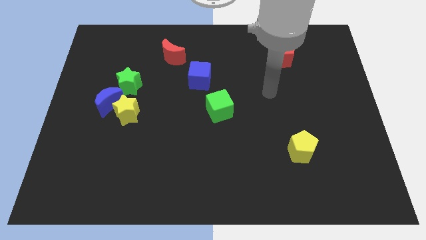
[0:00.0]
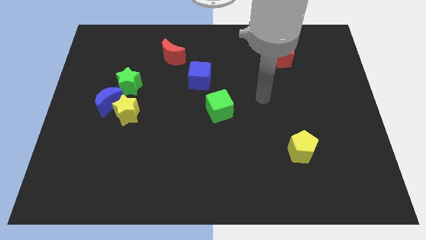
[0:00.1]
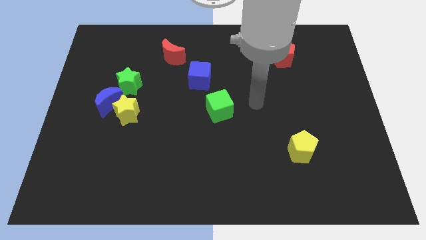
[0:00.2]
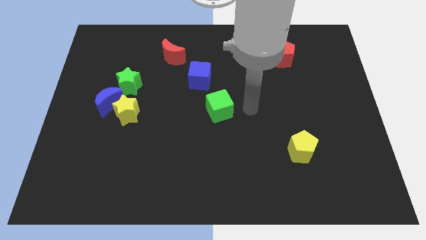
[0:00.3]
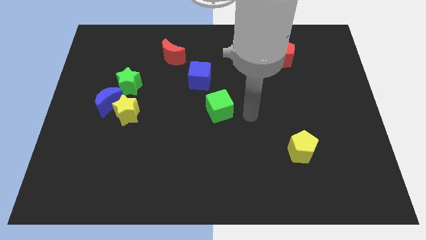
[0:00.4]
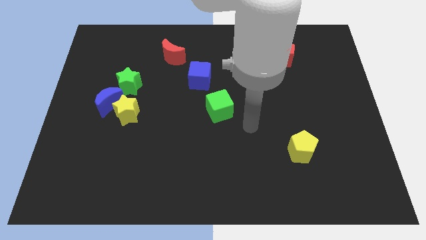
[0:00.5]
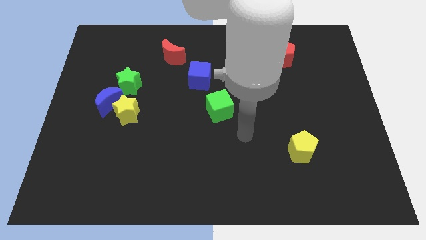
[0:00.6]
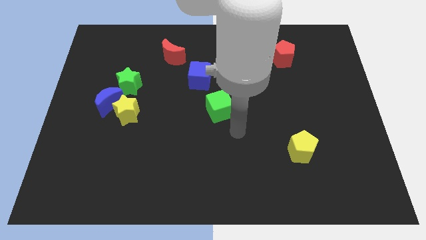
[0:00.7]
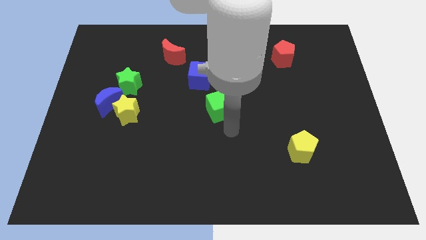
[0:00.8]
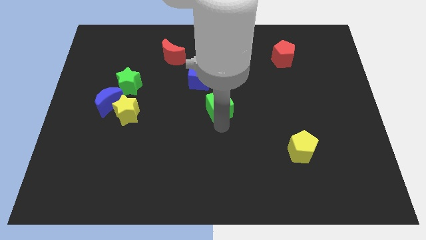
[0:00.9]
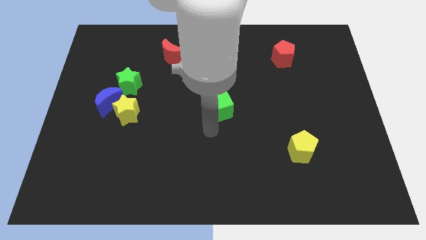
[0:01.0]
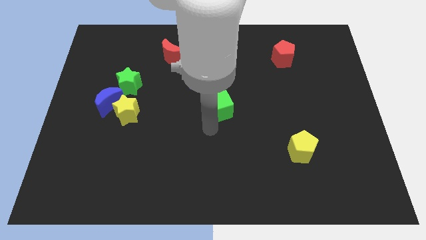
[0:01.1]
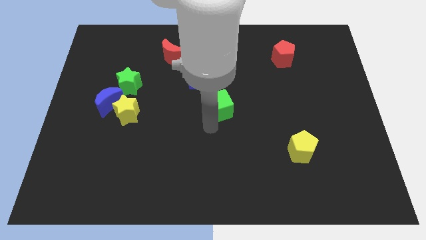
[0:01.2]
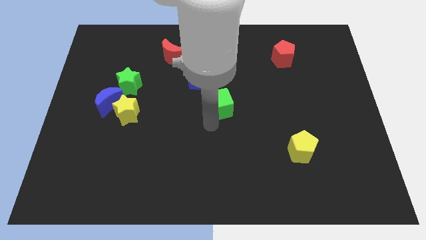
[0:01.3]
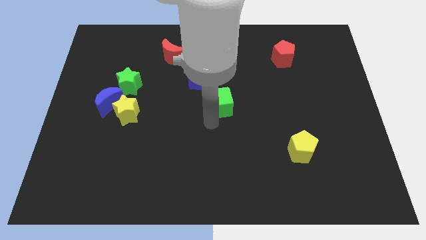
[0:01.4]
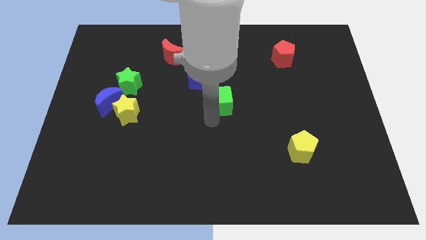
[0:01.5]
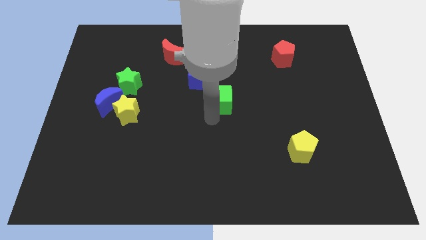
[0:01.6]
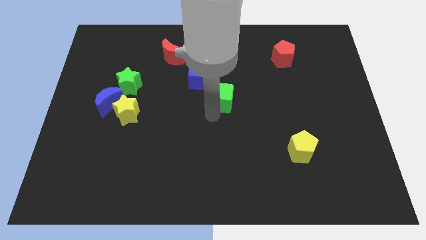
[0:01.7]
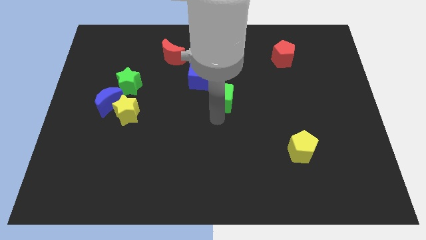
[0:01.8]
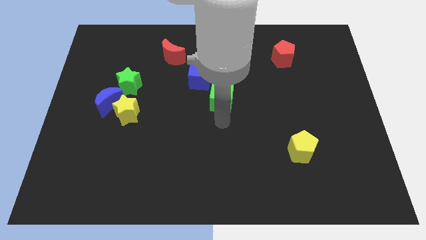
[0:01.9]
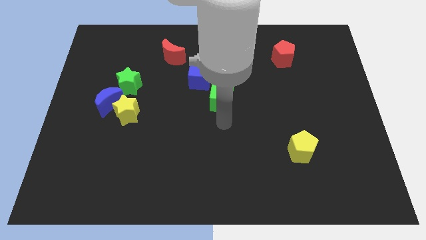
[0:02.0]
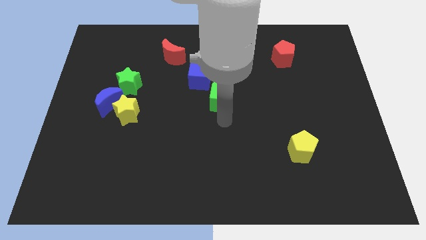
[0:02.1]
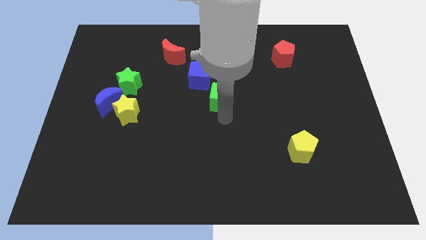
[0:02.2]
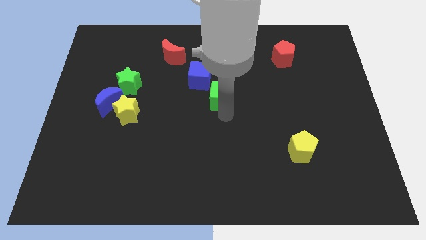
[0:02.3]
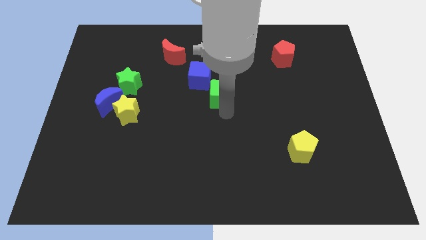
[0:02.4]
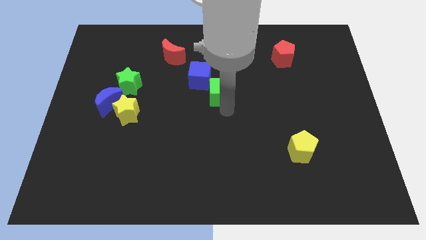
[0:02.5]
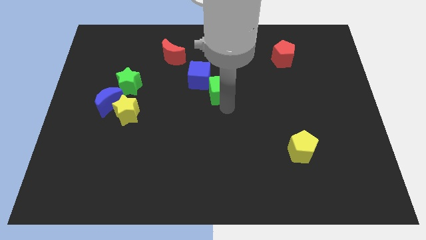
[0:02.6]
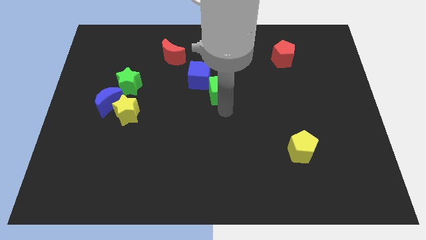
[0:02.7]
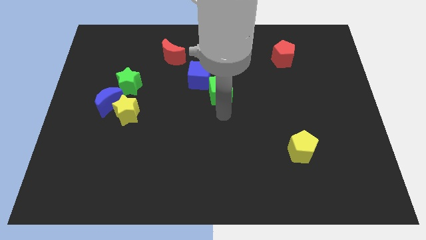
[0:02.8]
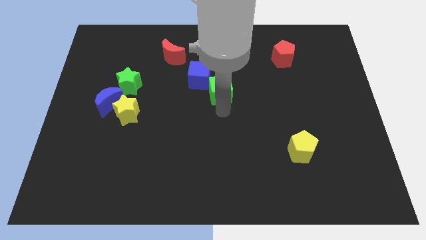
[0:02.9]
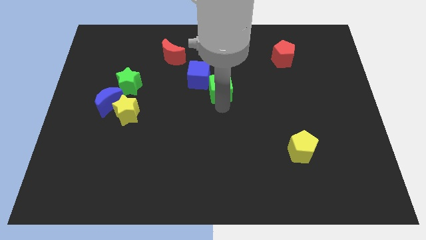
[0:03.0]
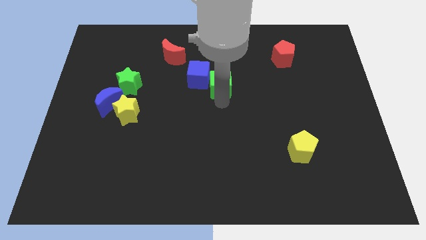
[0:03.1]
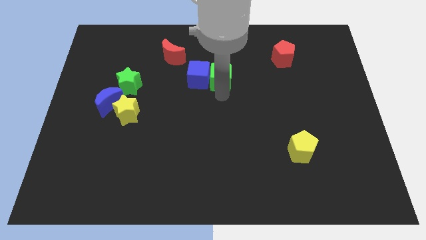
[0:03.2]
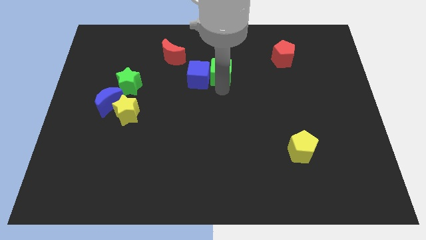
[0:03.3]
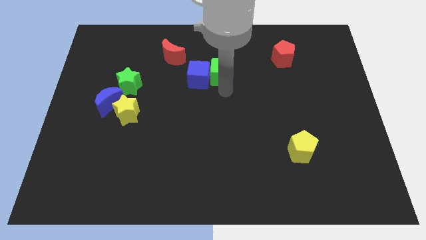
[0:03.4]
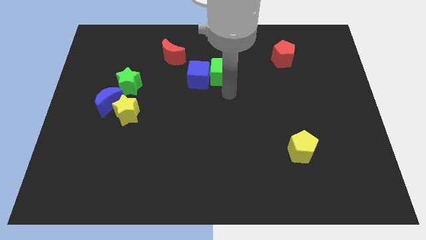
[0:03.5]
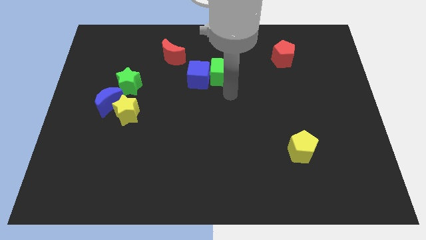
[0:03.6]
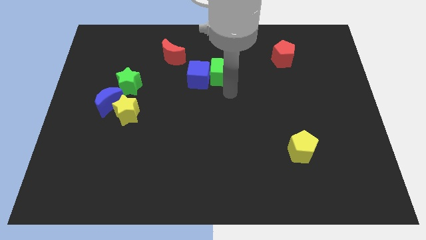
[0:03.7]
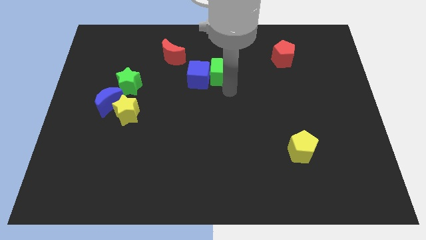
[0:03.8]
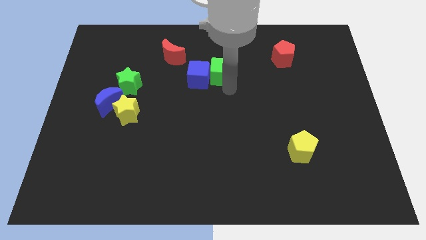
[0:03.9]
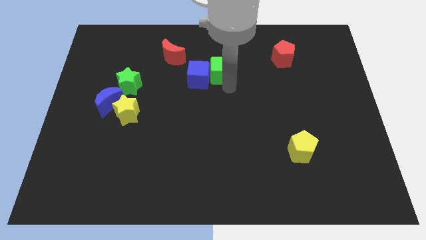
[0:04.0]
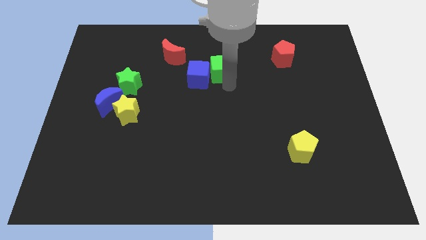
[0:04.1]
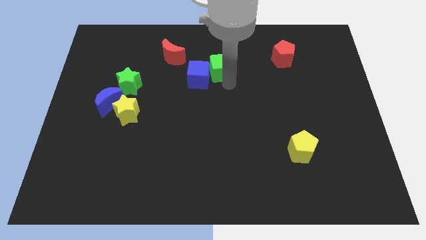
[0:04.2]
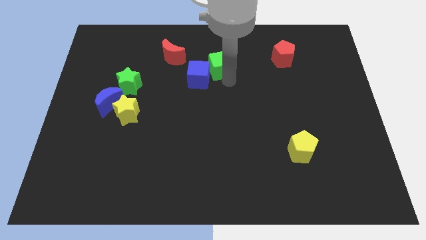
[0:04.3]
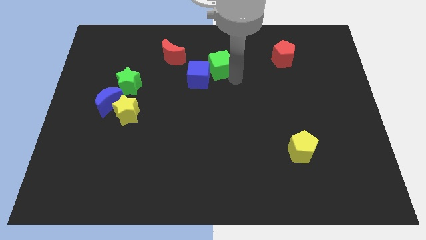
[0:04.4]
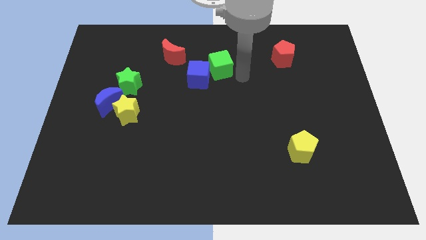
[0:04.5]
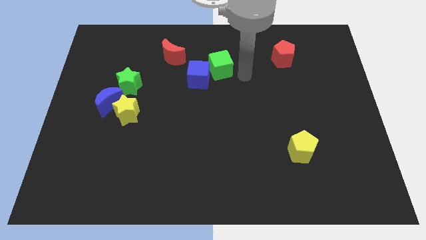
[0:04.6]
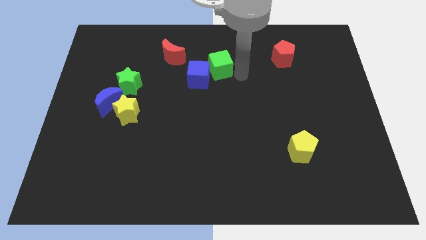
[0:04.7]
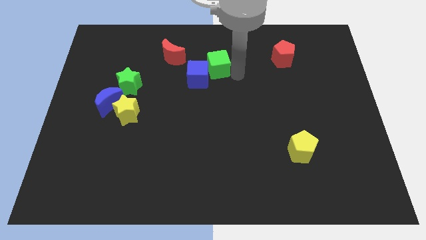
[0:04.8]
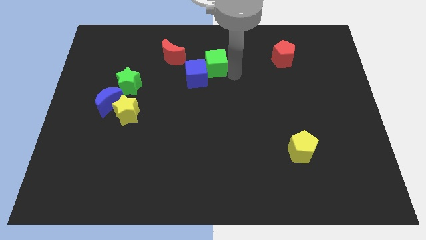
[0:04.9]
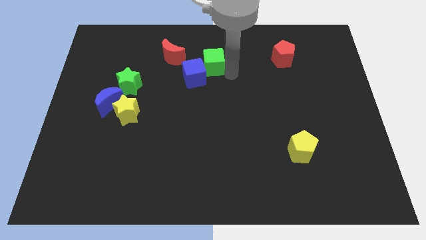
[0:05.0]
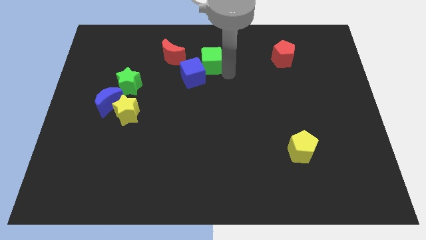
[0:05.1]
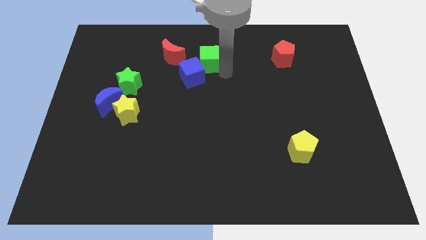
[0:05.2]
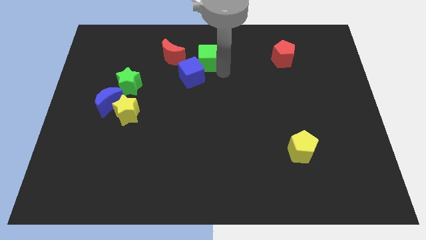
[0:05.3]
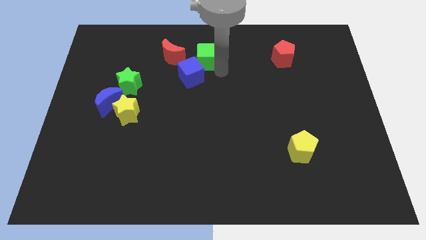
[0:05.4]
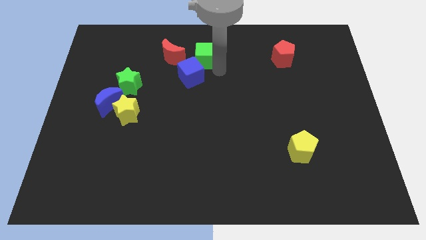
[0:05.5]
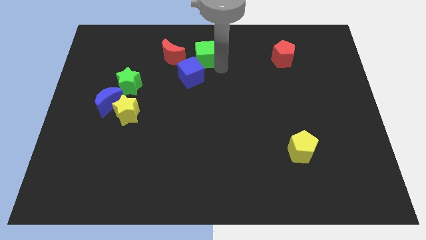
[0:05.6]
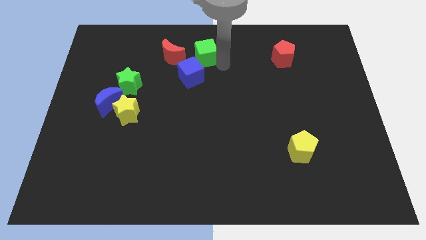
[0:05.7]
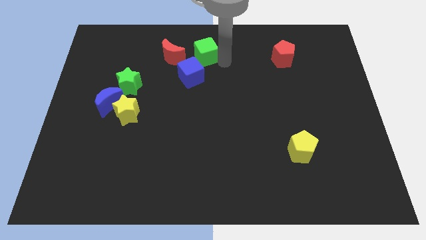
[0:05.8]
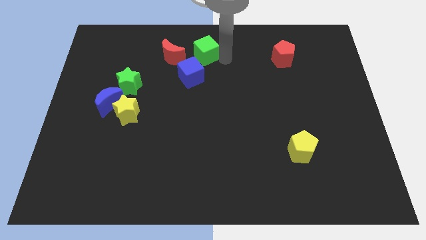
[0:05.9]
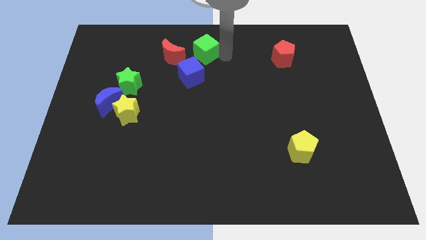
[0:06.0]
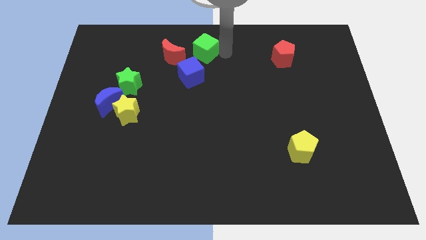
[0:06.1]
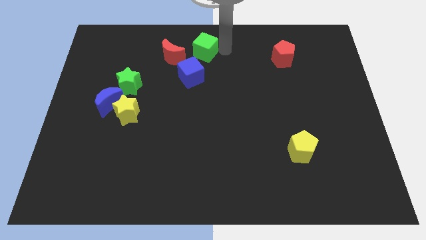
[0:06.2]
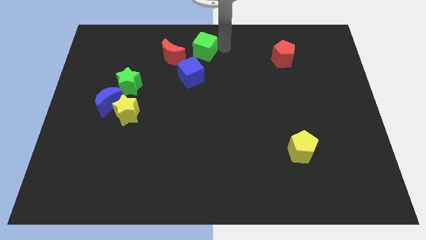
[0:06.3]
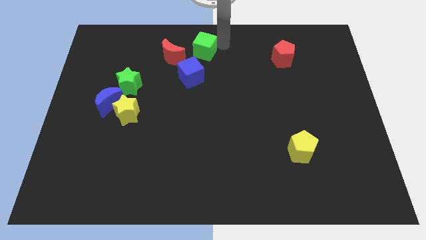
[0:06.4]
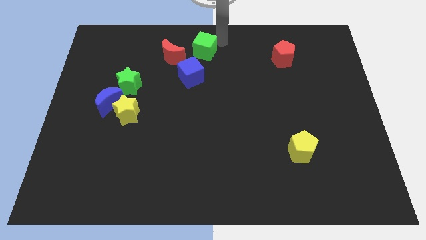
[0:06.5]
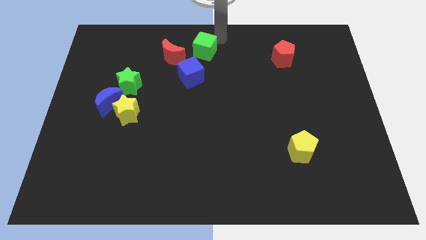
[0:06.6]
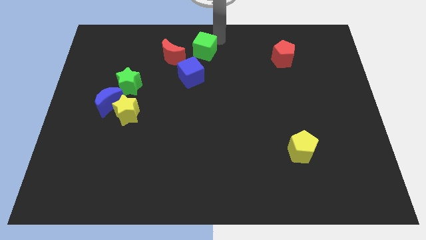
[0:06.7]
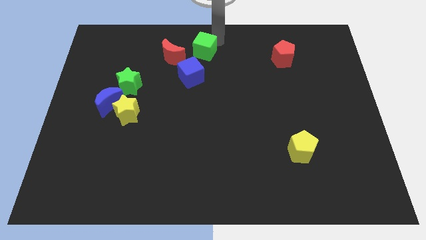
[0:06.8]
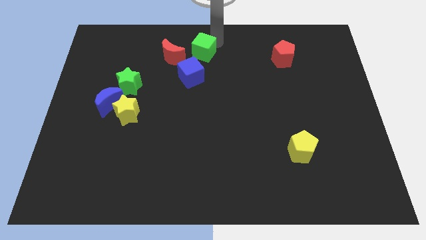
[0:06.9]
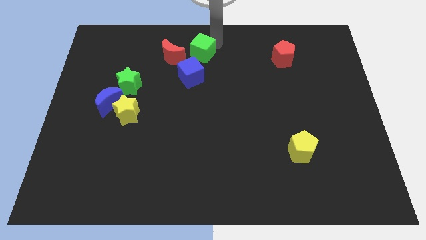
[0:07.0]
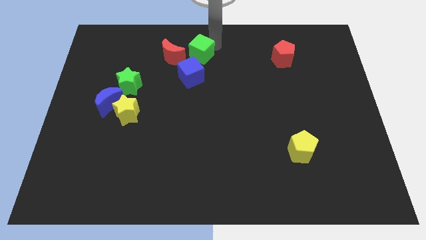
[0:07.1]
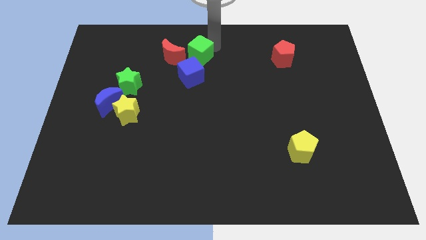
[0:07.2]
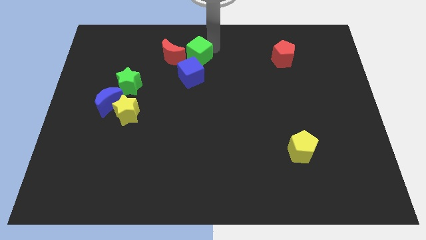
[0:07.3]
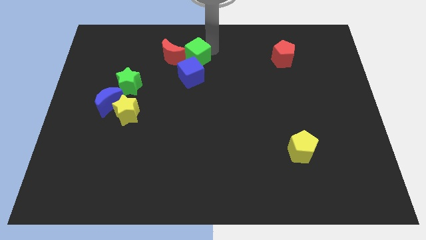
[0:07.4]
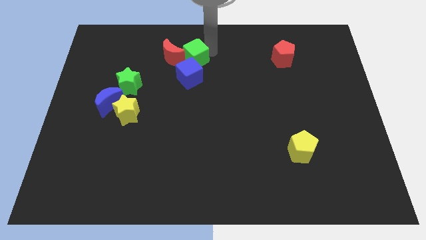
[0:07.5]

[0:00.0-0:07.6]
push the green cube next to the red moon
